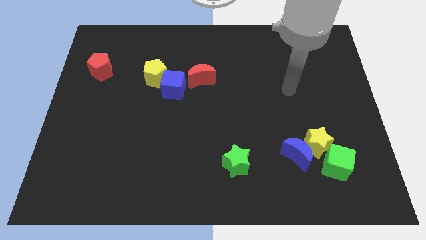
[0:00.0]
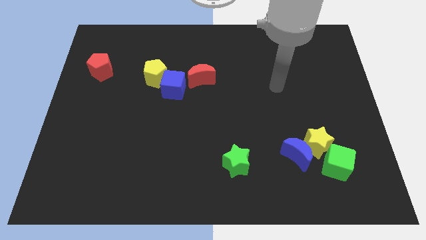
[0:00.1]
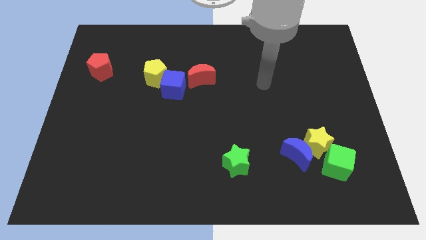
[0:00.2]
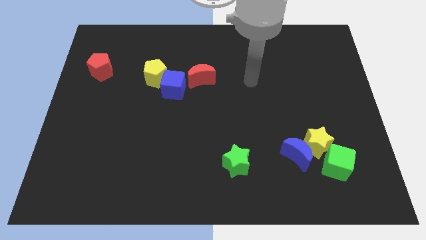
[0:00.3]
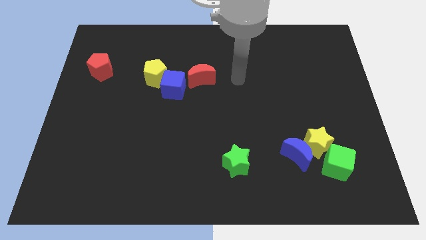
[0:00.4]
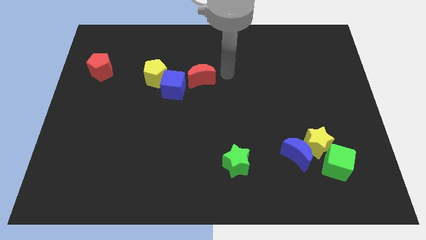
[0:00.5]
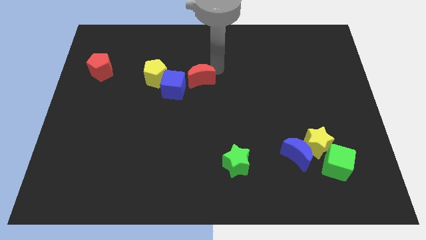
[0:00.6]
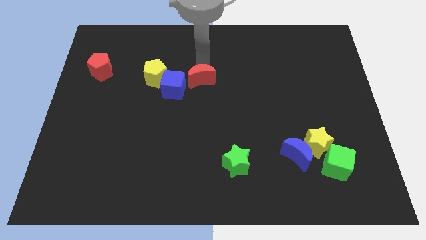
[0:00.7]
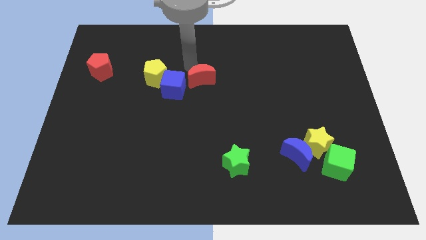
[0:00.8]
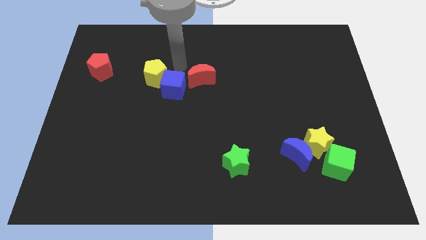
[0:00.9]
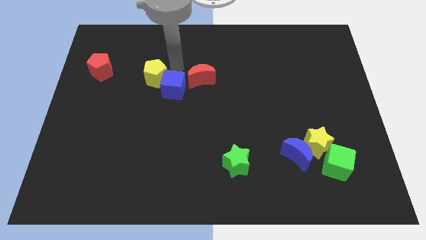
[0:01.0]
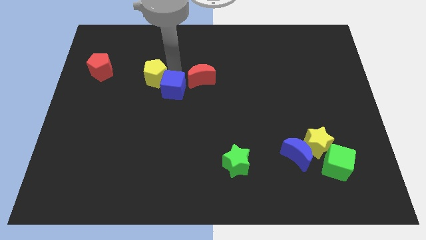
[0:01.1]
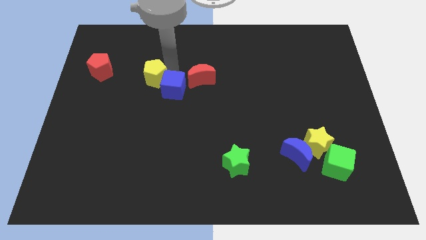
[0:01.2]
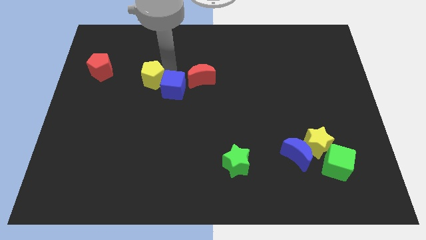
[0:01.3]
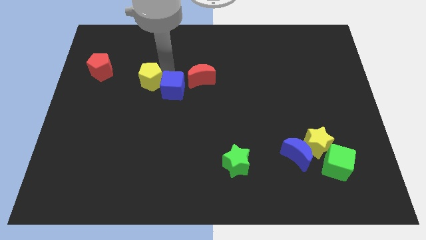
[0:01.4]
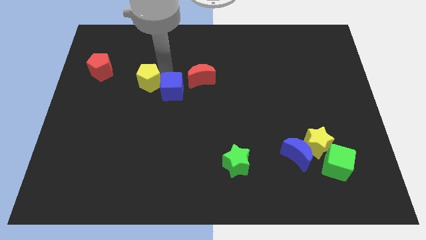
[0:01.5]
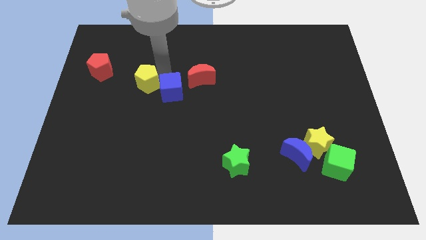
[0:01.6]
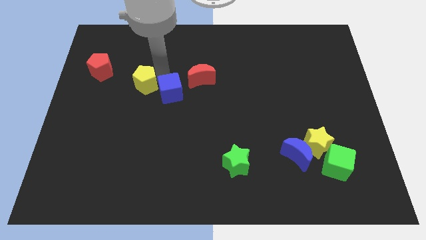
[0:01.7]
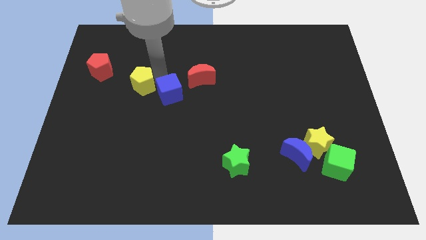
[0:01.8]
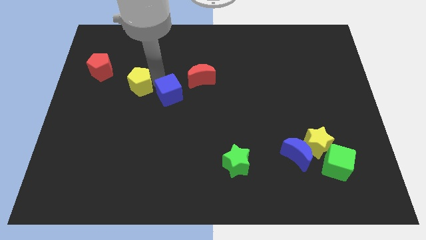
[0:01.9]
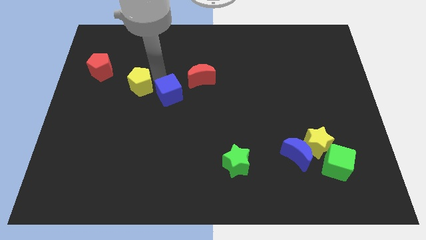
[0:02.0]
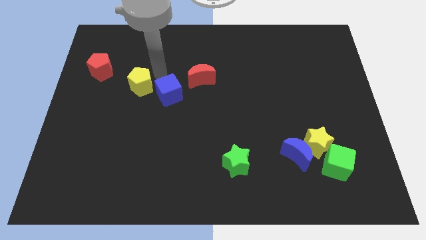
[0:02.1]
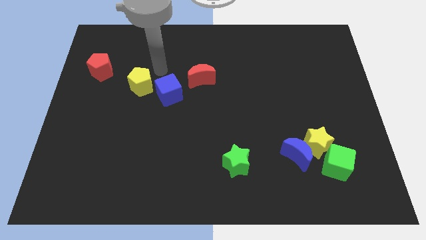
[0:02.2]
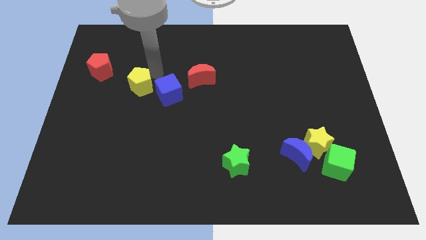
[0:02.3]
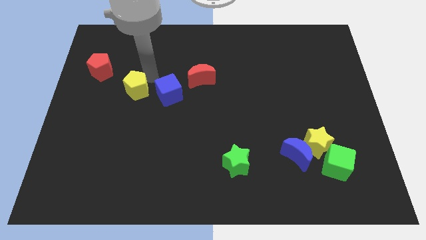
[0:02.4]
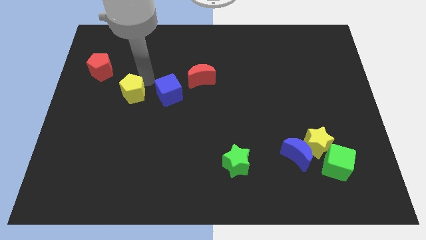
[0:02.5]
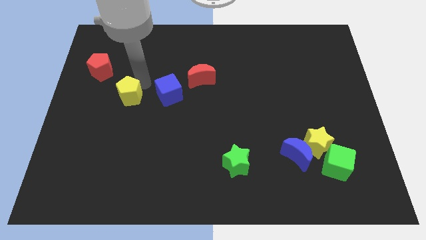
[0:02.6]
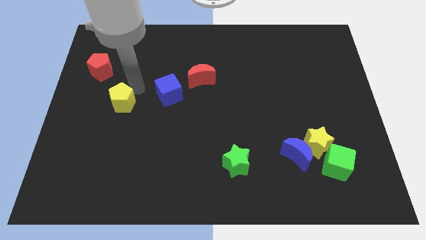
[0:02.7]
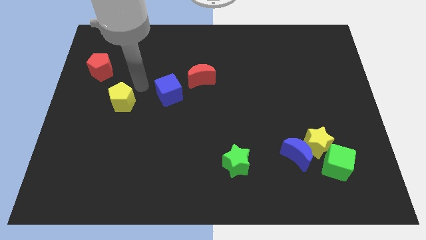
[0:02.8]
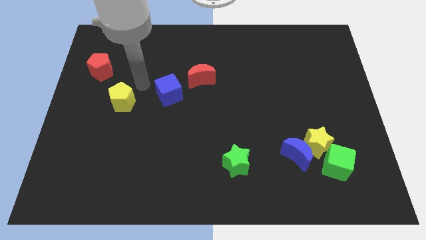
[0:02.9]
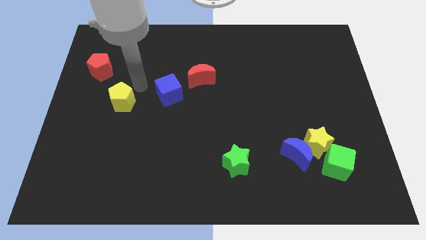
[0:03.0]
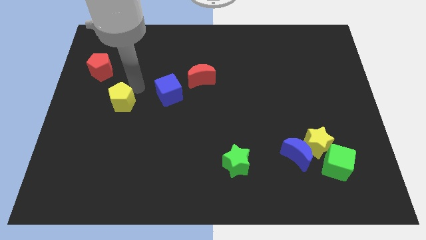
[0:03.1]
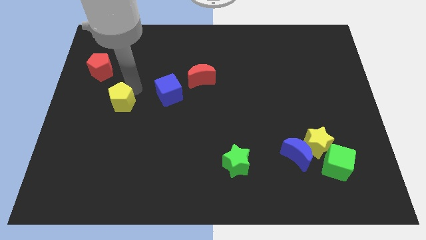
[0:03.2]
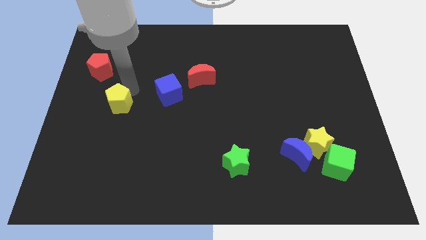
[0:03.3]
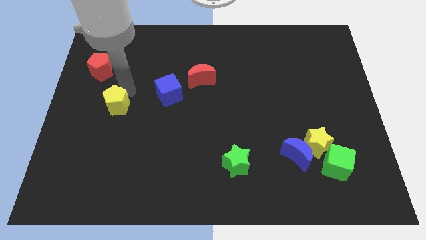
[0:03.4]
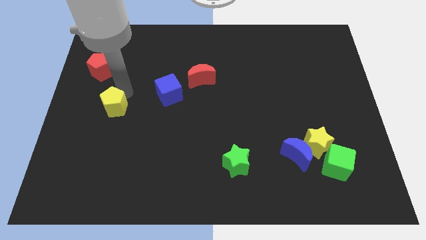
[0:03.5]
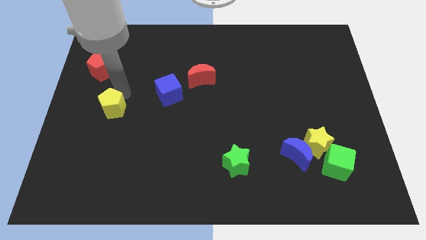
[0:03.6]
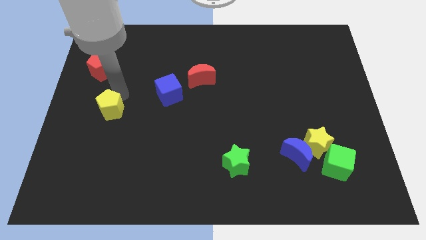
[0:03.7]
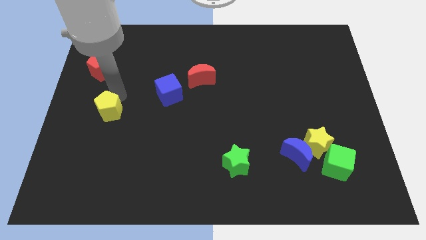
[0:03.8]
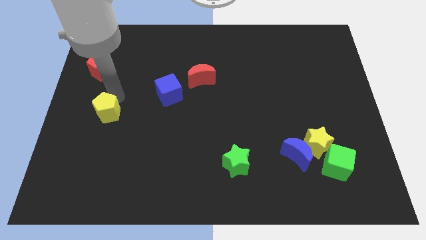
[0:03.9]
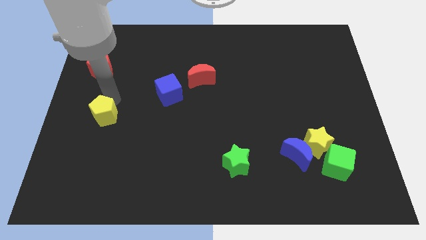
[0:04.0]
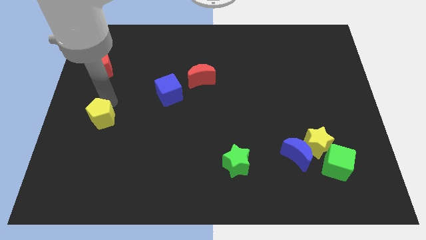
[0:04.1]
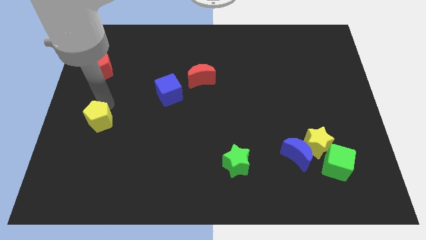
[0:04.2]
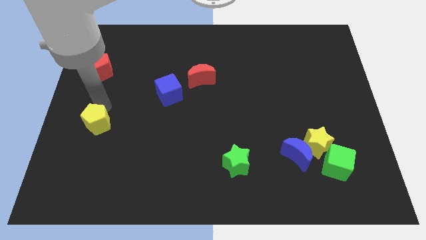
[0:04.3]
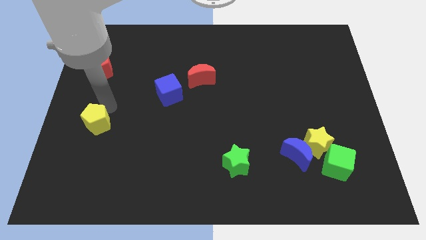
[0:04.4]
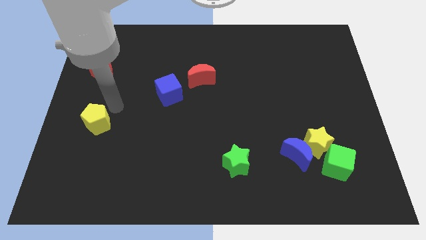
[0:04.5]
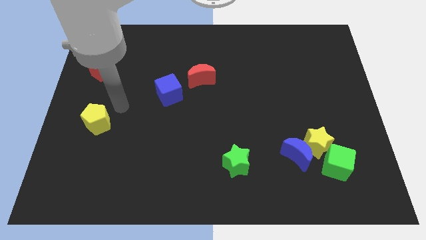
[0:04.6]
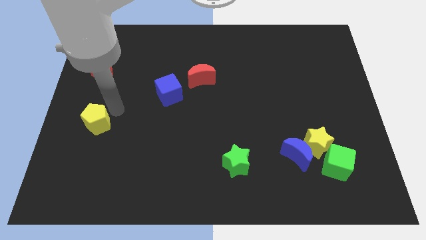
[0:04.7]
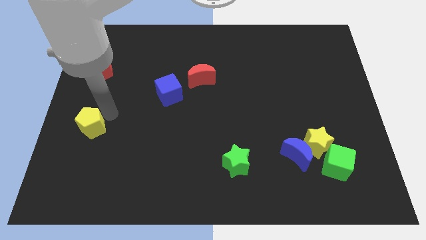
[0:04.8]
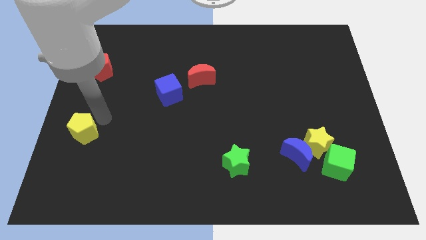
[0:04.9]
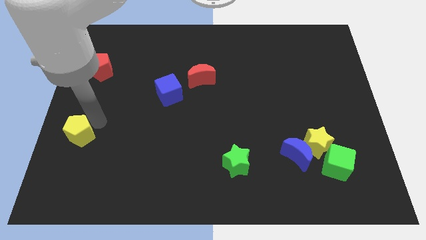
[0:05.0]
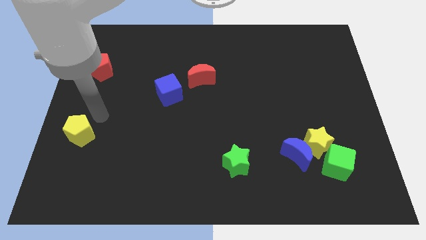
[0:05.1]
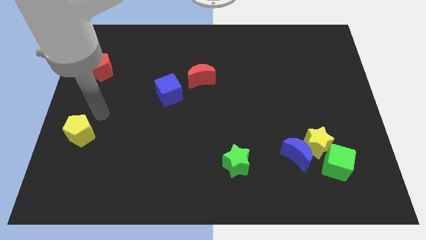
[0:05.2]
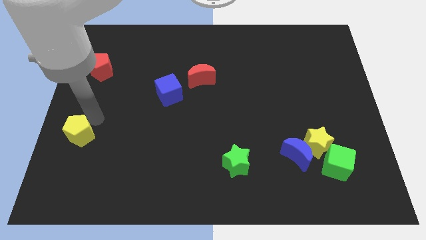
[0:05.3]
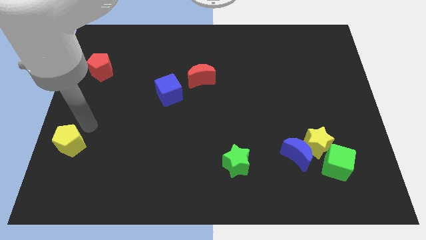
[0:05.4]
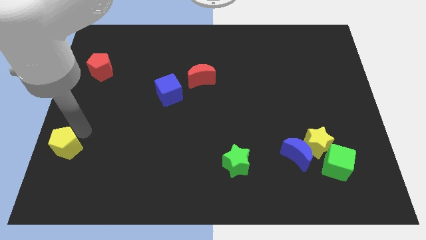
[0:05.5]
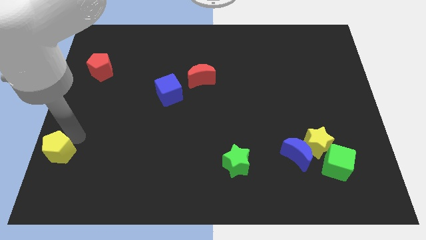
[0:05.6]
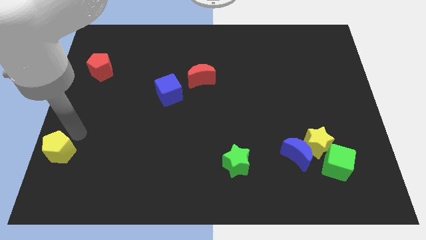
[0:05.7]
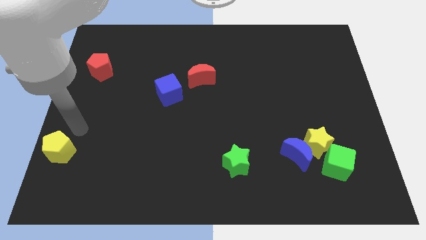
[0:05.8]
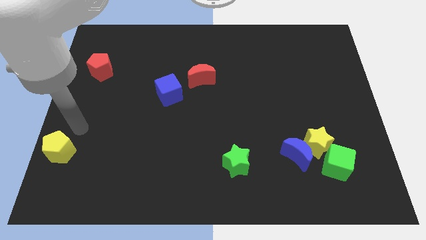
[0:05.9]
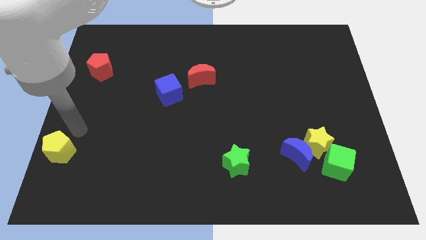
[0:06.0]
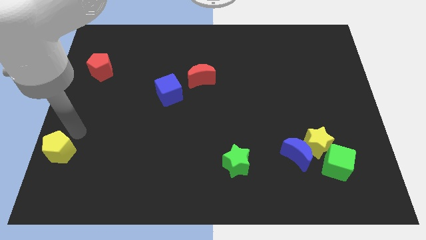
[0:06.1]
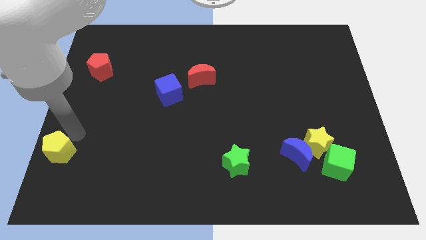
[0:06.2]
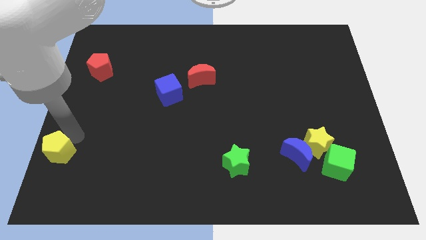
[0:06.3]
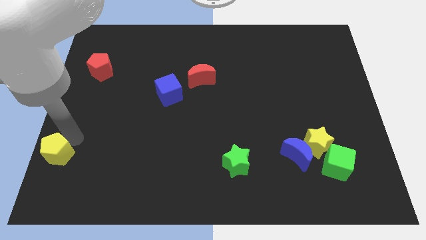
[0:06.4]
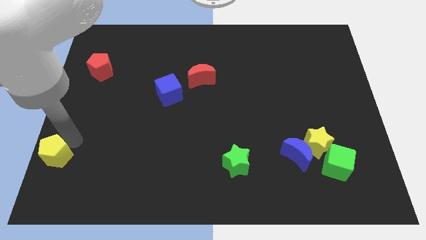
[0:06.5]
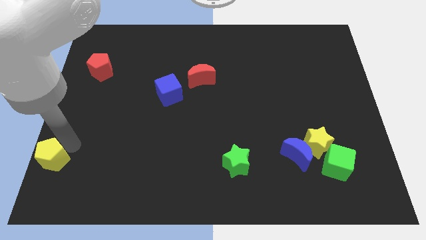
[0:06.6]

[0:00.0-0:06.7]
put the yellow pentagon to the lower left corner

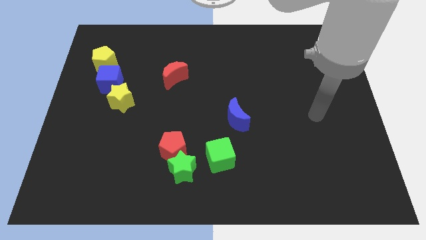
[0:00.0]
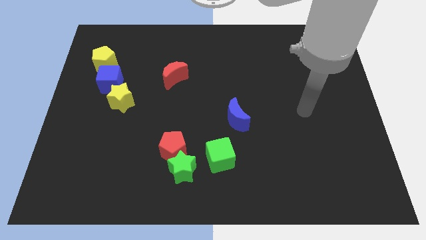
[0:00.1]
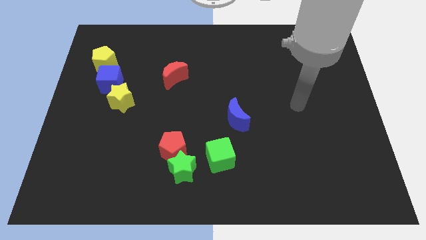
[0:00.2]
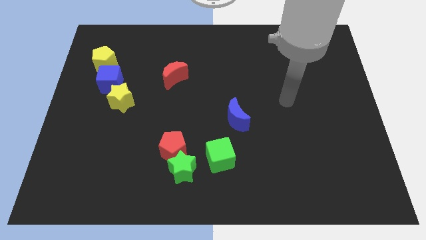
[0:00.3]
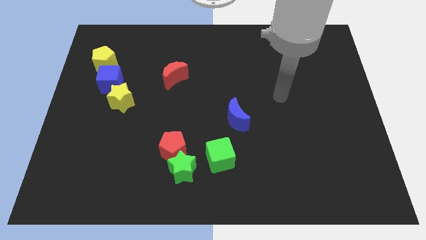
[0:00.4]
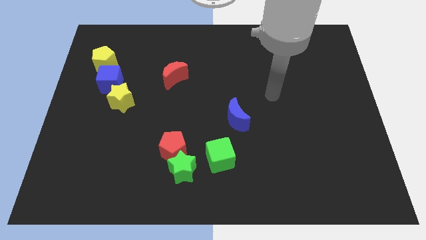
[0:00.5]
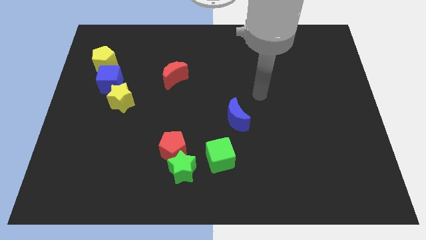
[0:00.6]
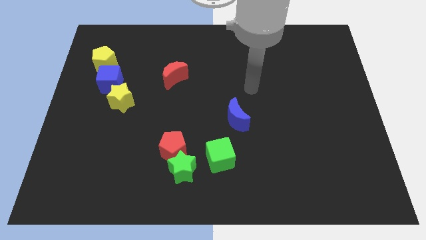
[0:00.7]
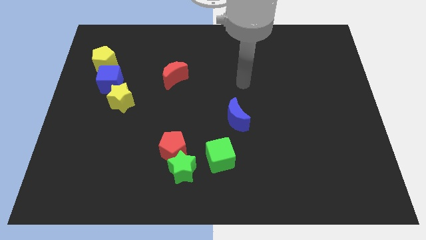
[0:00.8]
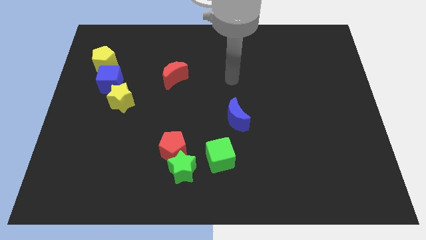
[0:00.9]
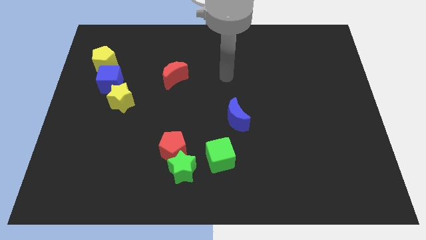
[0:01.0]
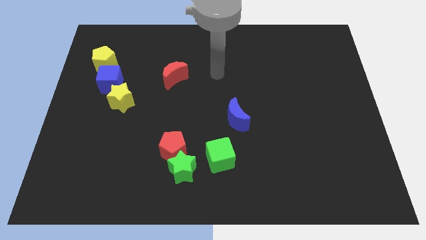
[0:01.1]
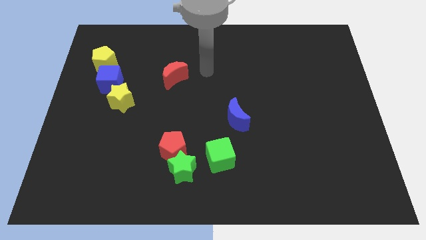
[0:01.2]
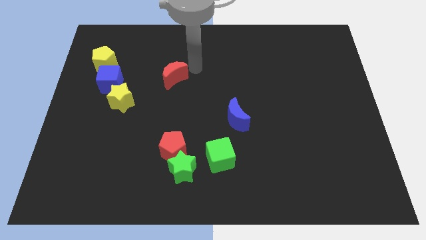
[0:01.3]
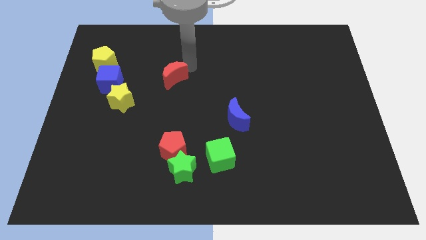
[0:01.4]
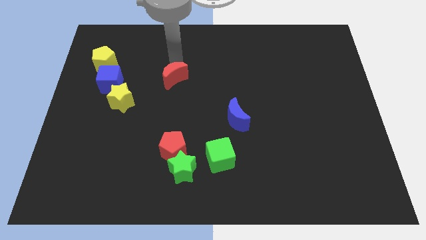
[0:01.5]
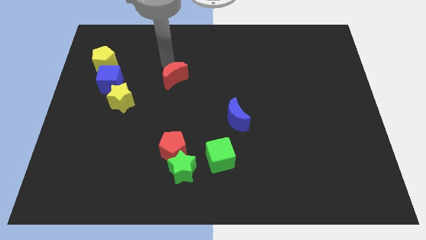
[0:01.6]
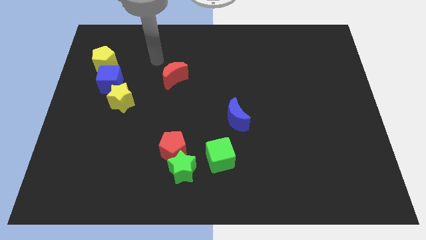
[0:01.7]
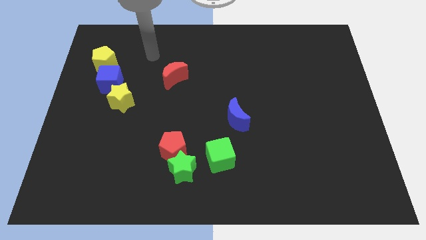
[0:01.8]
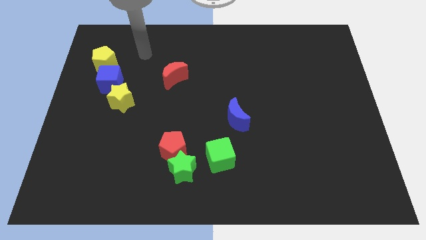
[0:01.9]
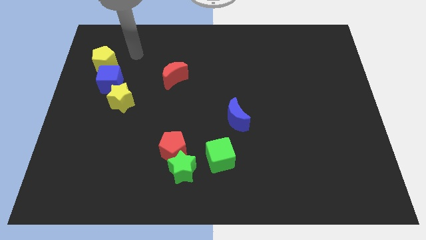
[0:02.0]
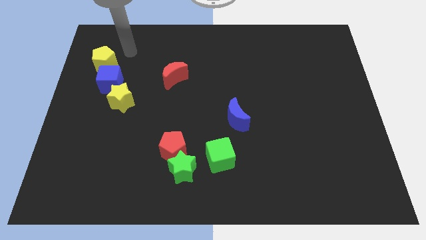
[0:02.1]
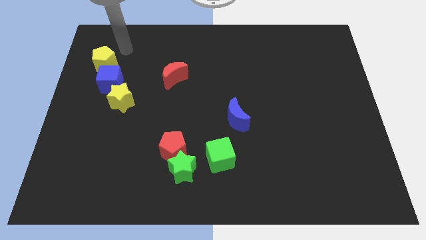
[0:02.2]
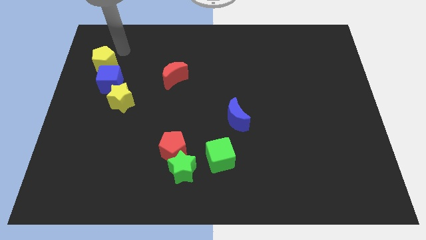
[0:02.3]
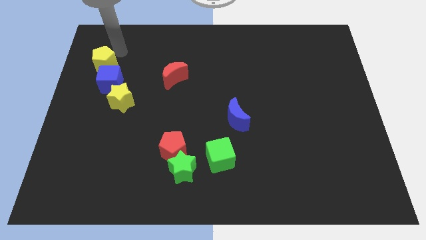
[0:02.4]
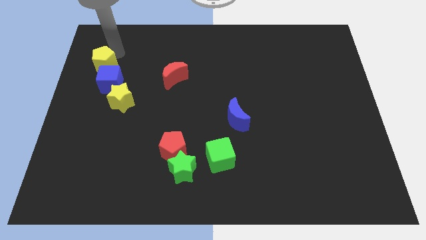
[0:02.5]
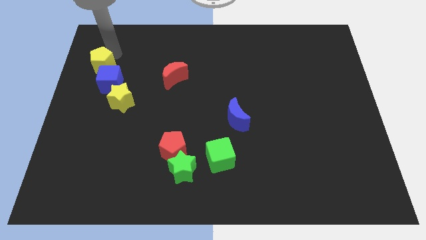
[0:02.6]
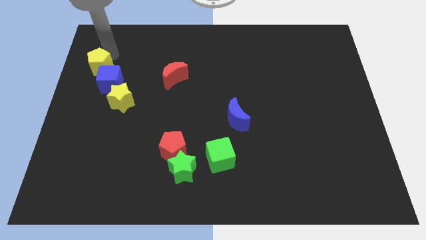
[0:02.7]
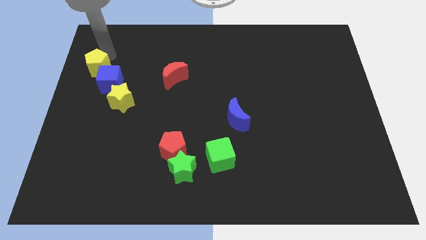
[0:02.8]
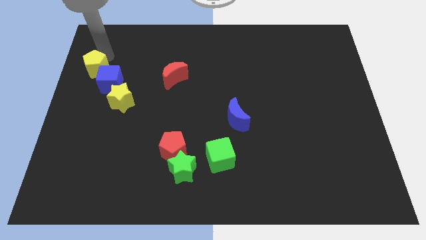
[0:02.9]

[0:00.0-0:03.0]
move the yellow pentagon to the left side
